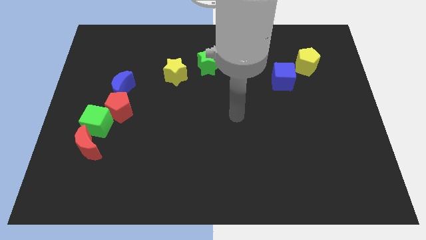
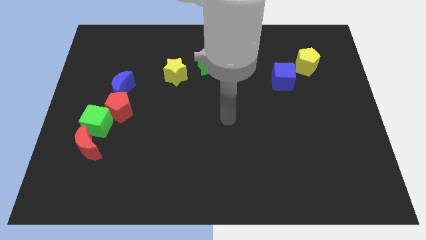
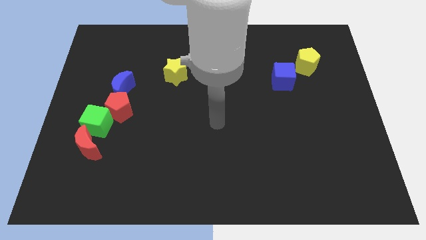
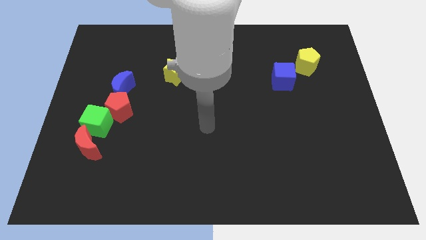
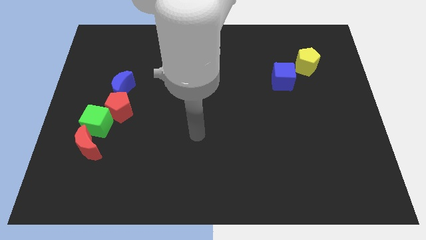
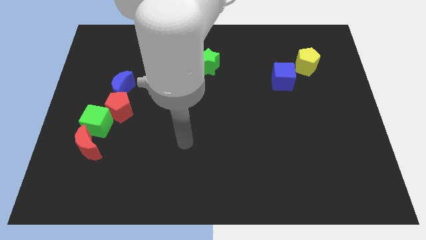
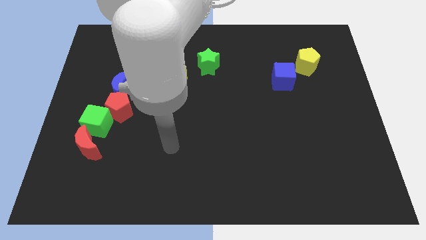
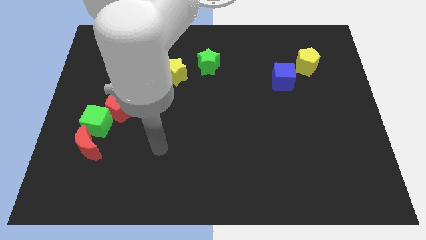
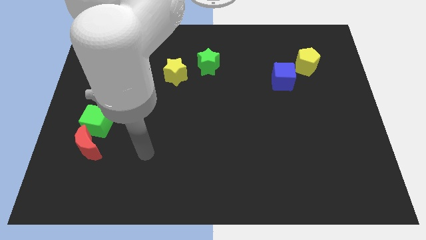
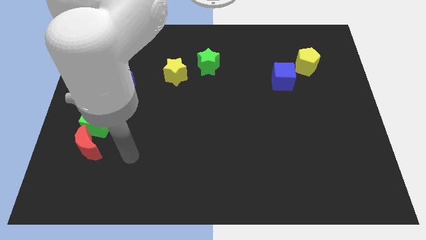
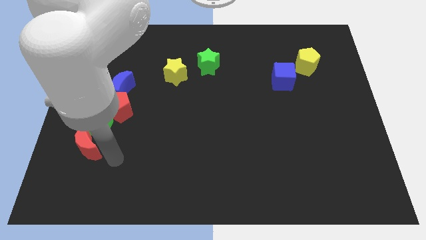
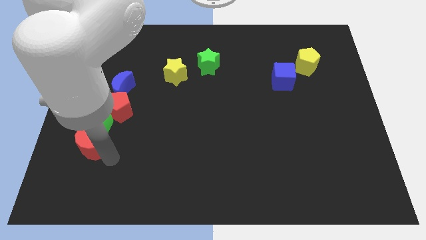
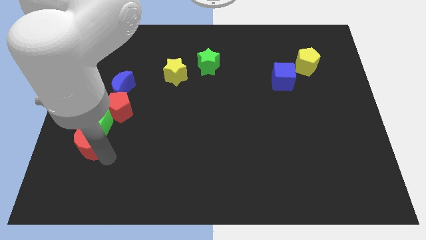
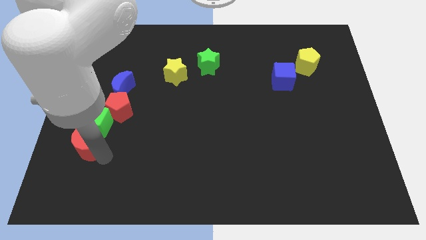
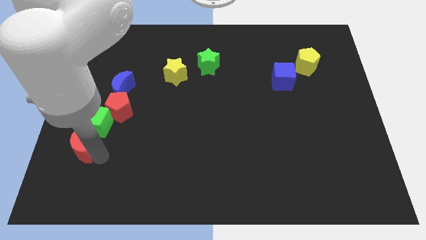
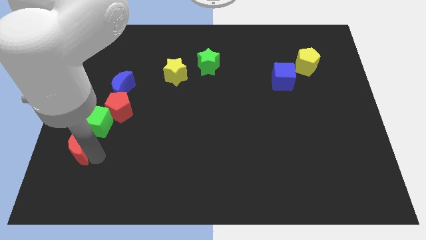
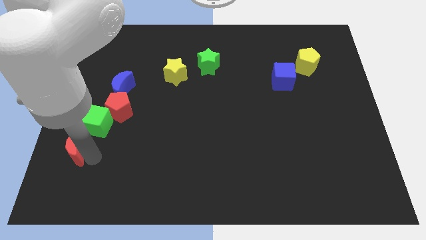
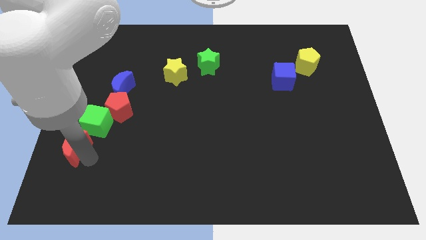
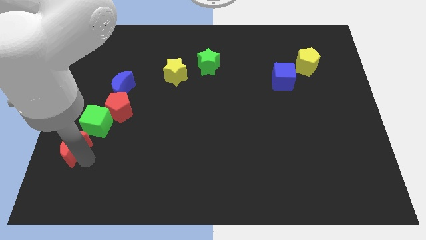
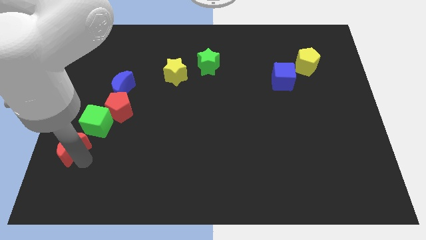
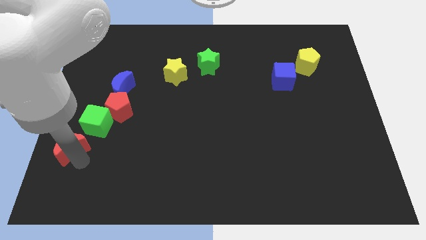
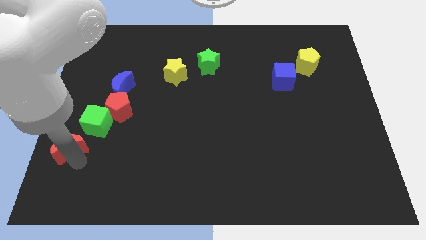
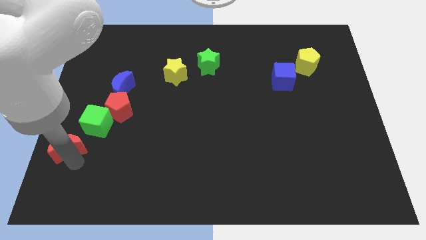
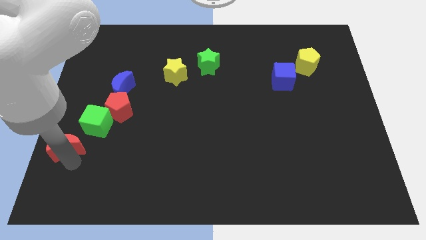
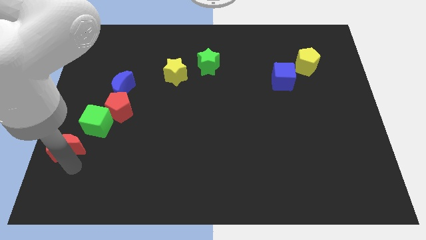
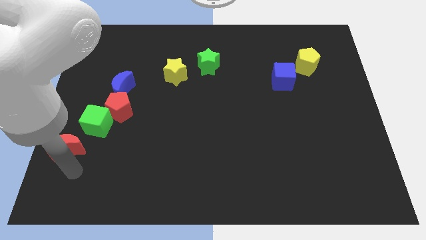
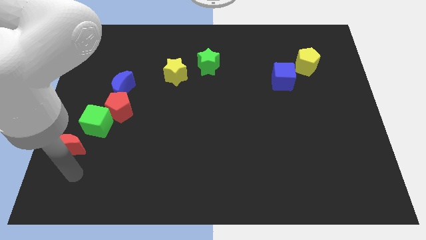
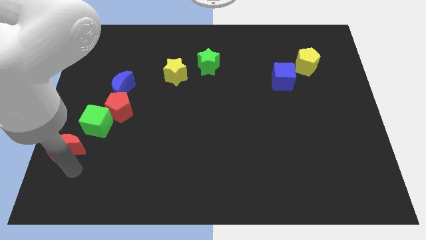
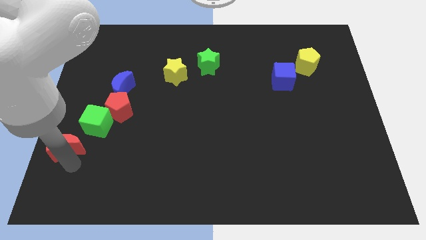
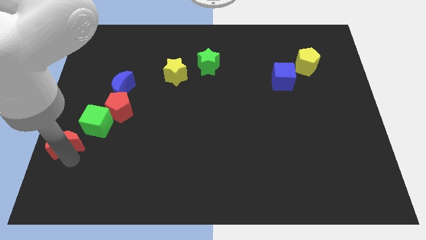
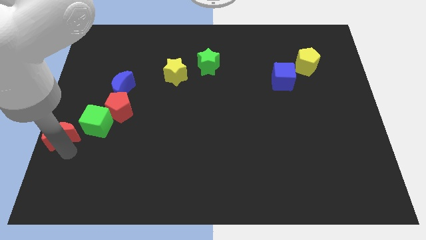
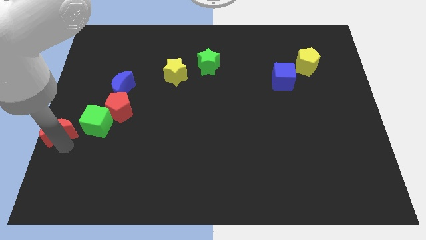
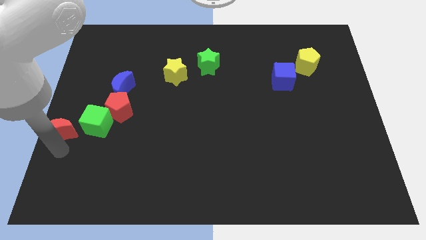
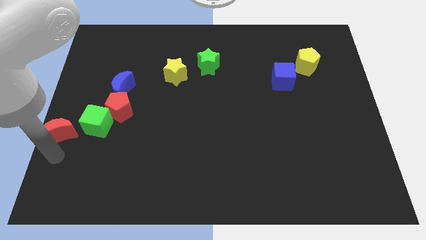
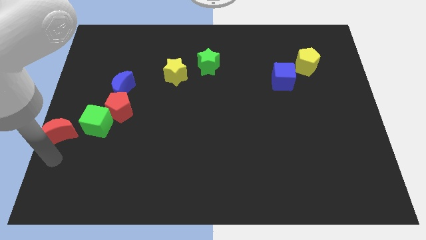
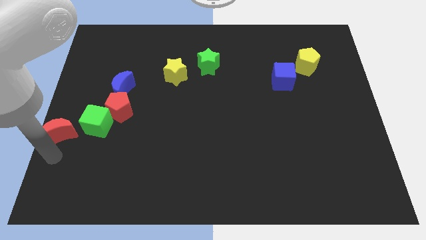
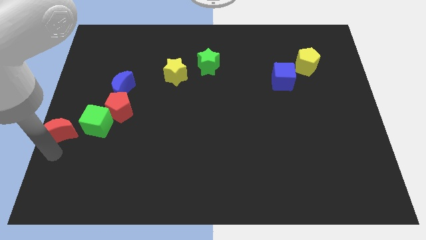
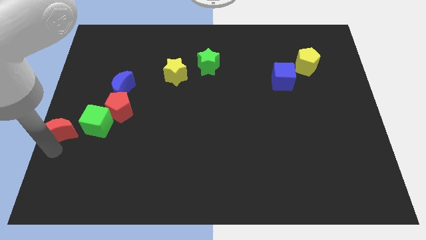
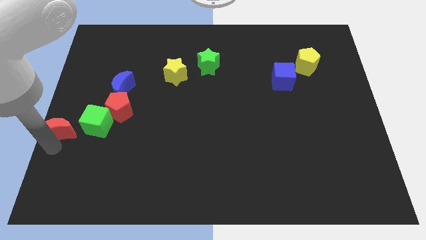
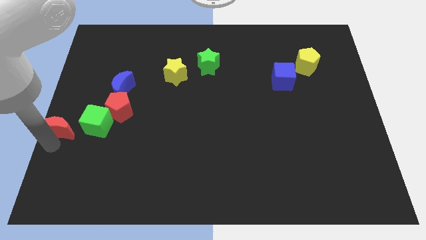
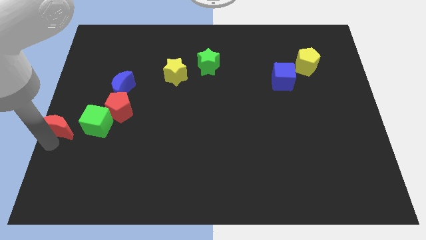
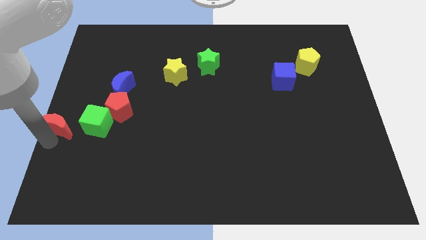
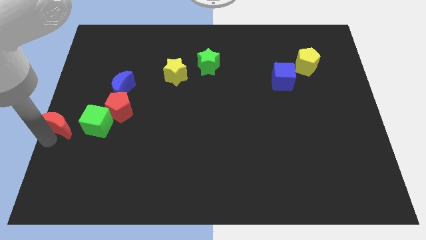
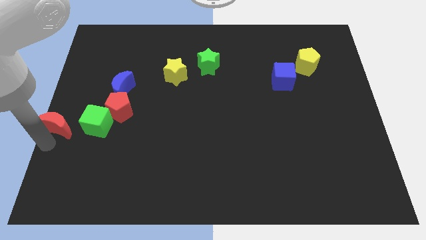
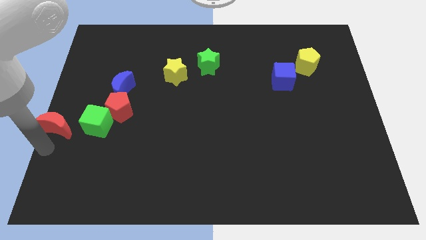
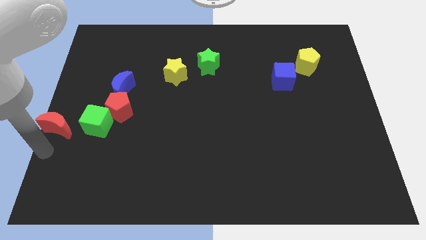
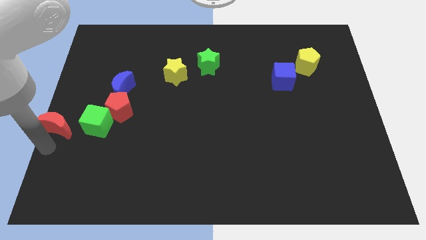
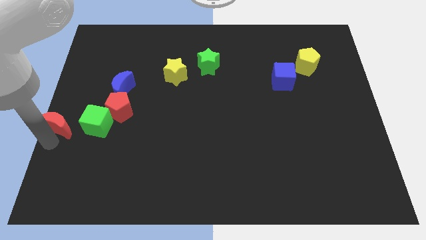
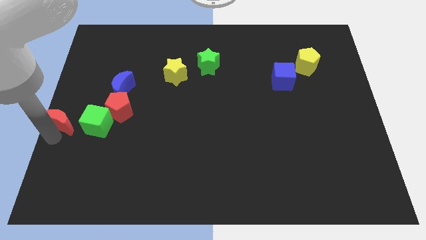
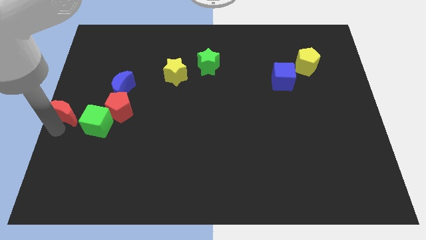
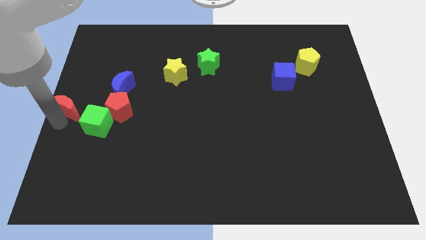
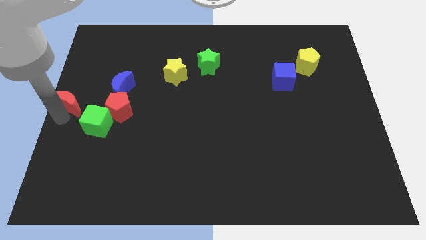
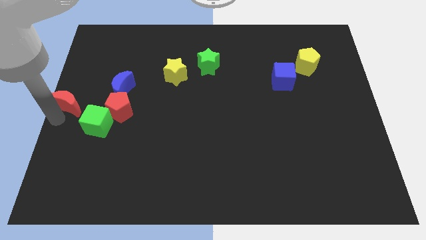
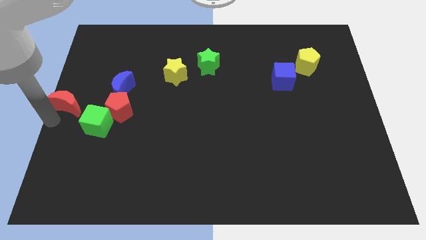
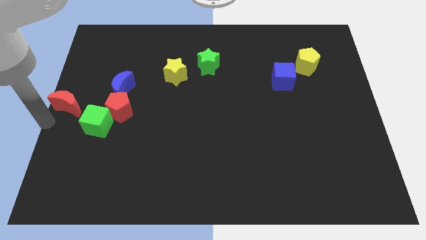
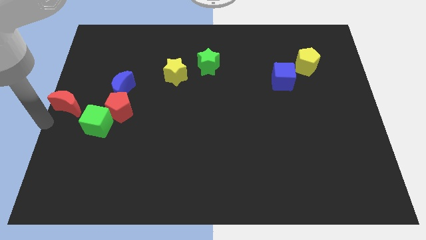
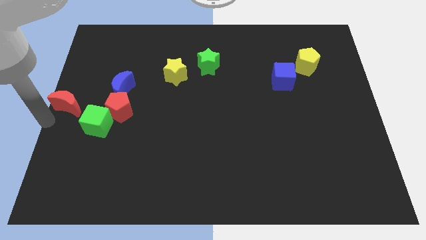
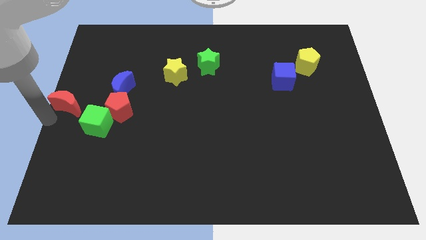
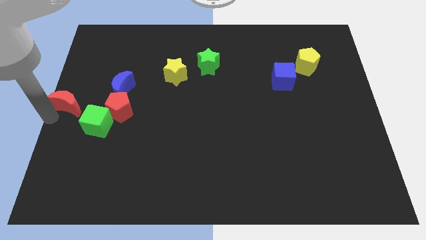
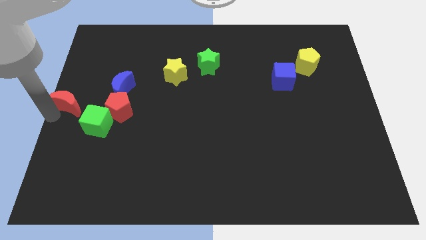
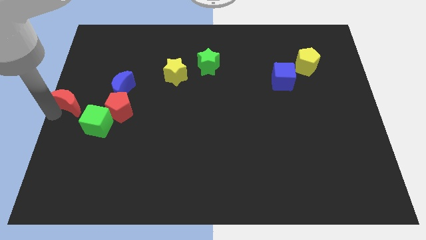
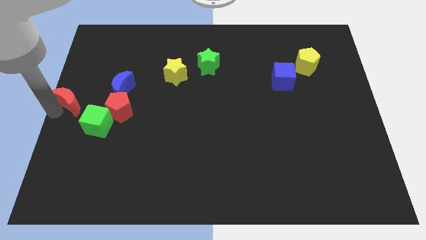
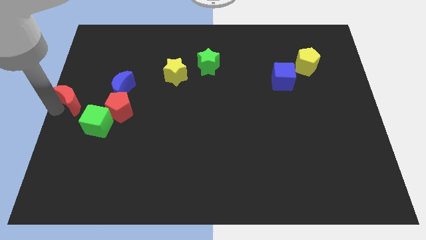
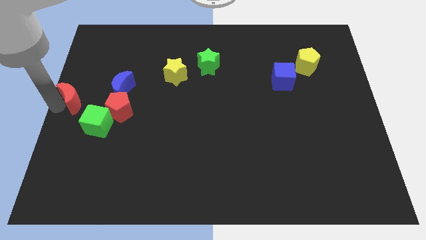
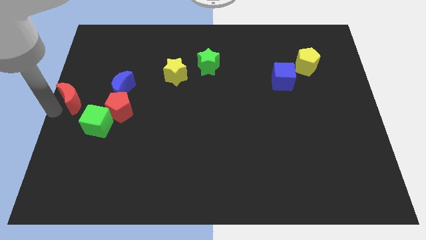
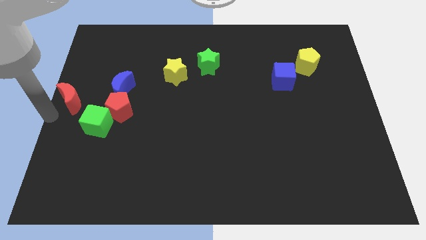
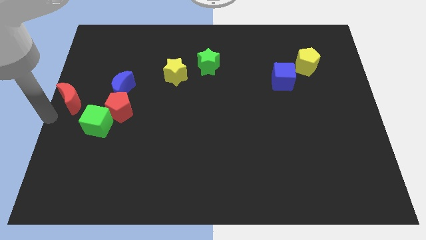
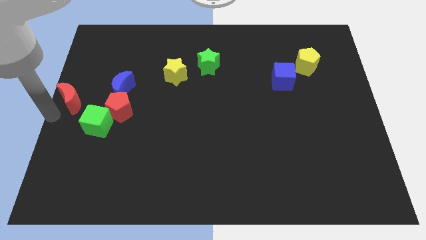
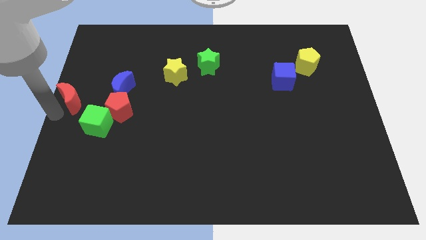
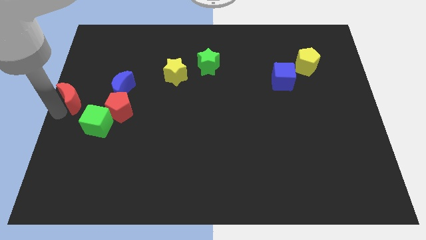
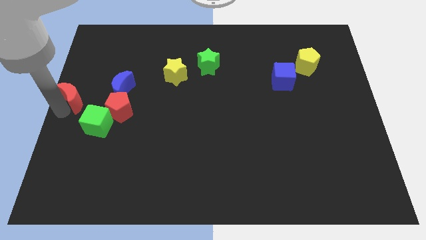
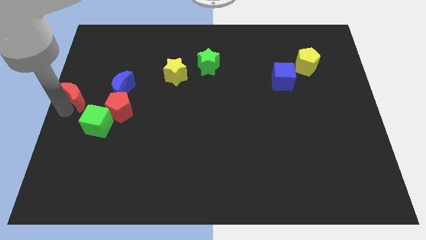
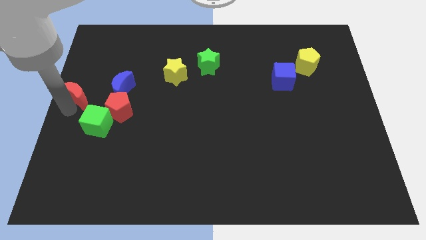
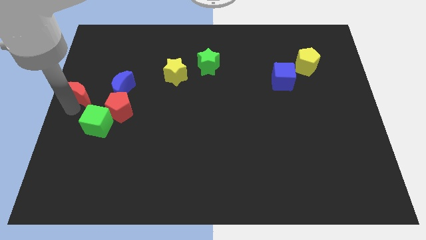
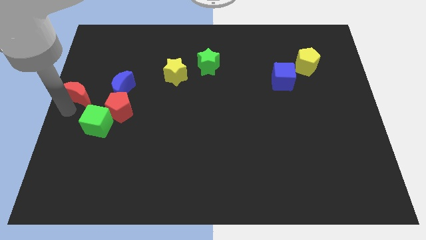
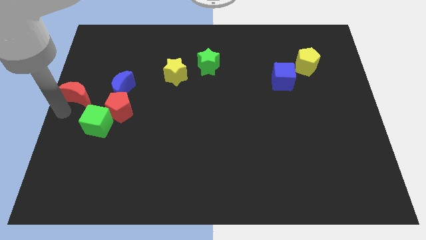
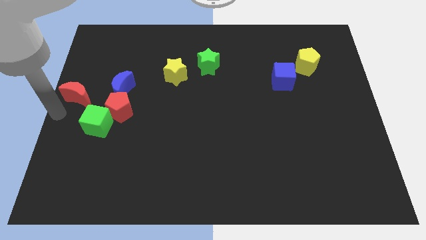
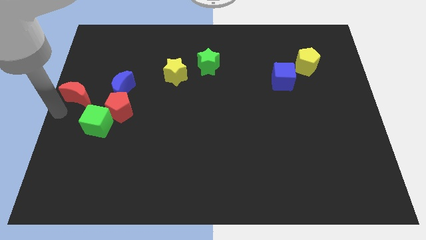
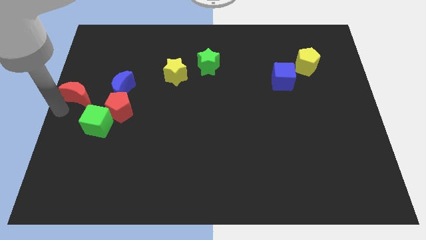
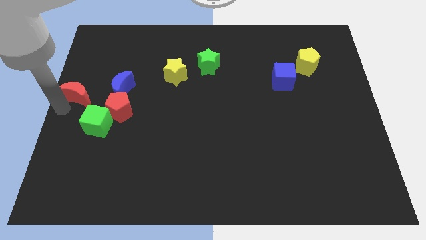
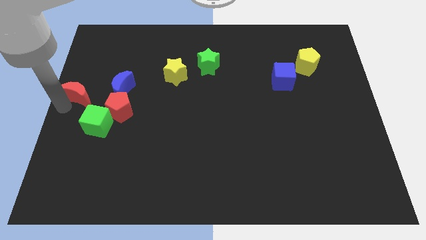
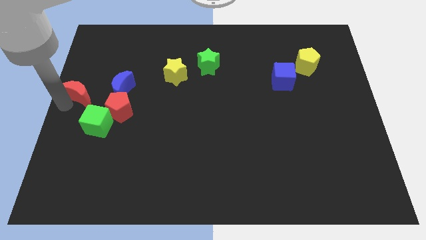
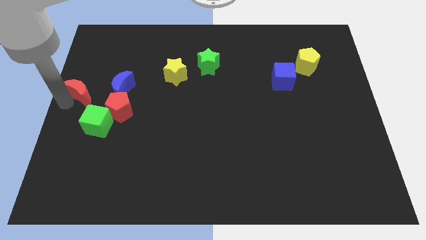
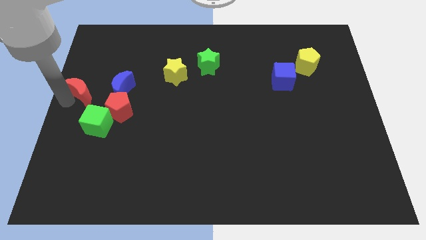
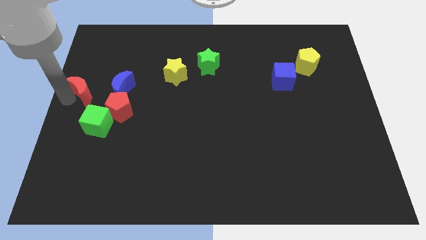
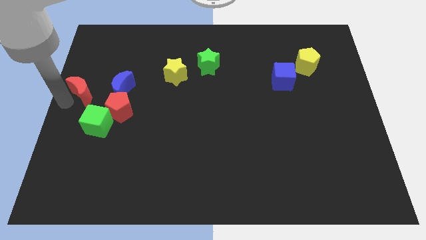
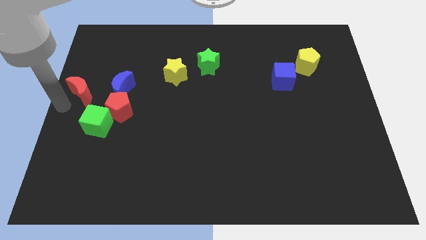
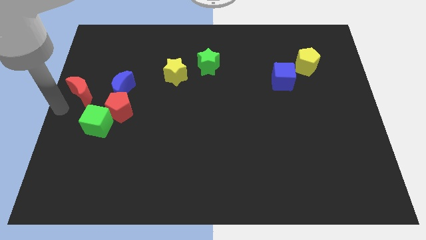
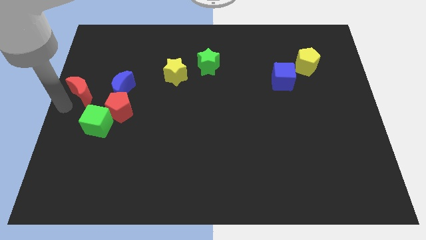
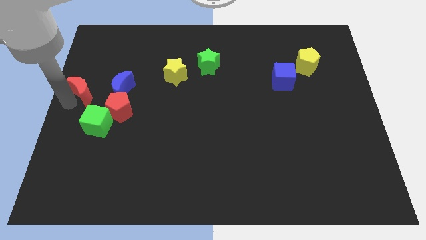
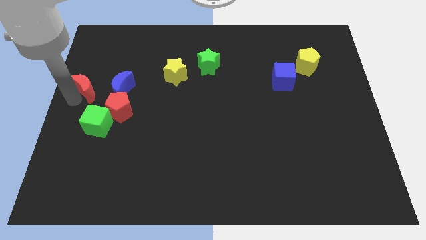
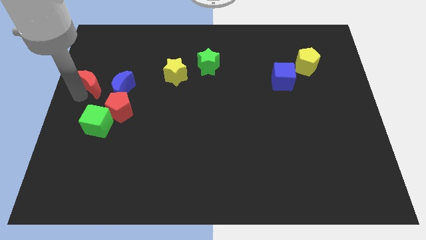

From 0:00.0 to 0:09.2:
put the red moon to the top left of the blue moon
